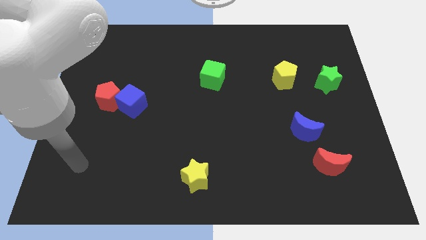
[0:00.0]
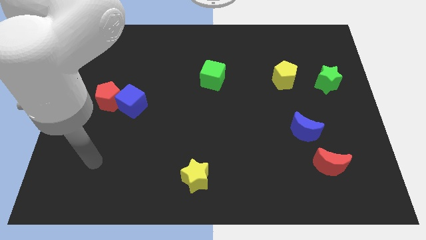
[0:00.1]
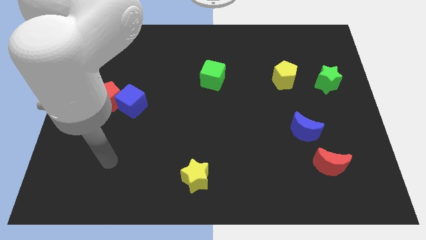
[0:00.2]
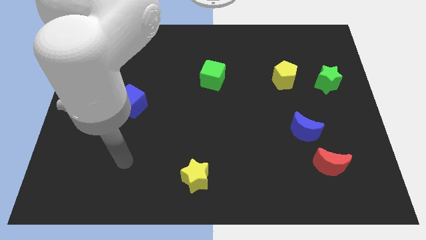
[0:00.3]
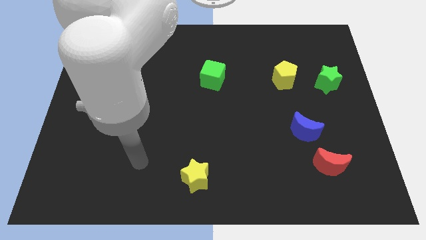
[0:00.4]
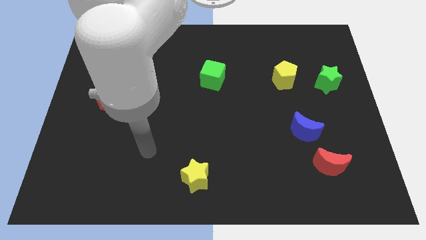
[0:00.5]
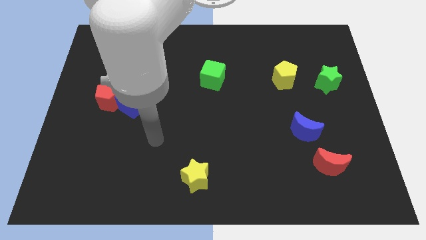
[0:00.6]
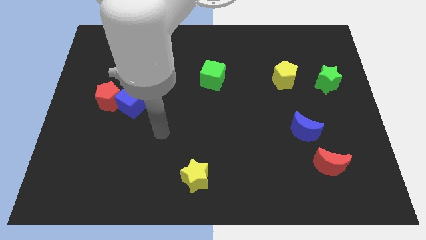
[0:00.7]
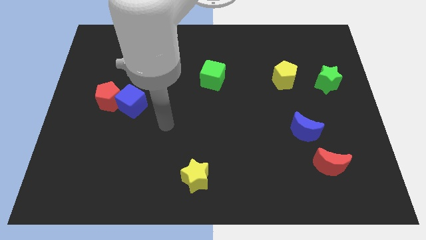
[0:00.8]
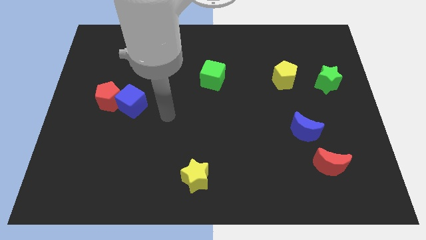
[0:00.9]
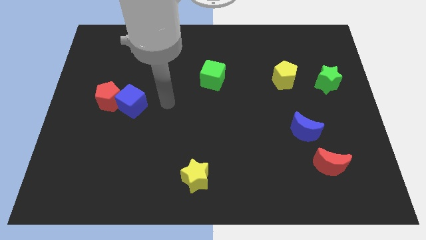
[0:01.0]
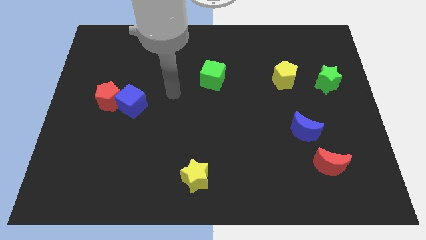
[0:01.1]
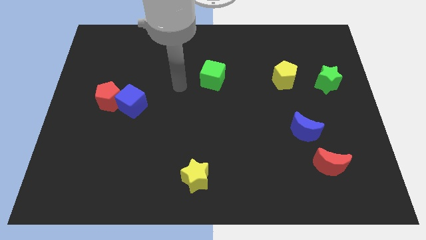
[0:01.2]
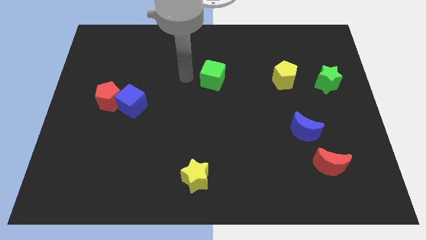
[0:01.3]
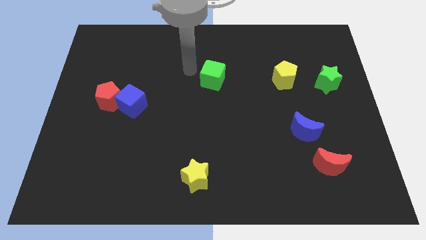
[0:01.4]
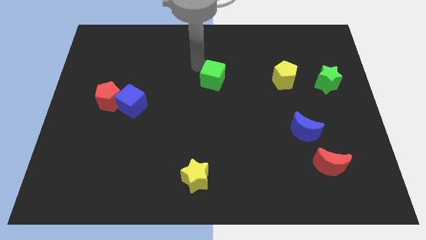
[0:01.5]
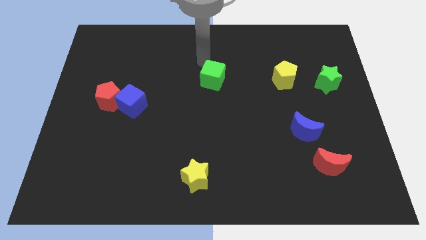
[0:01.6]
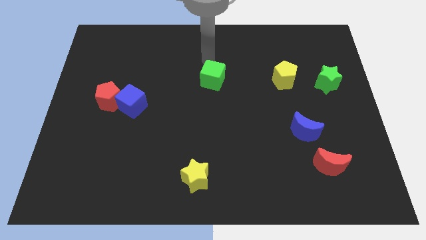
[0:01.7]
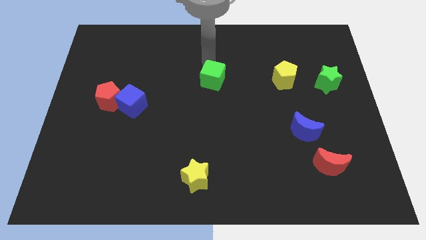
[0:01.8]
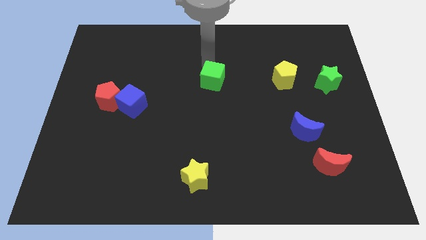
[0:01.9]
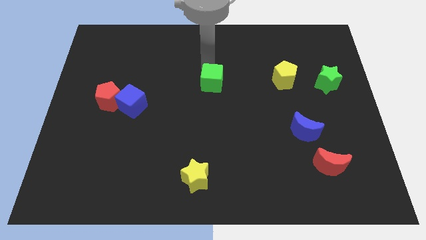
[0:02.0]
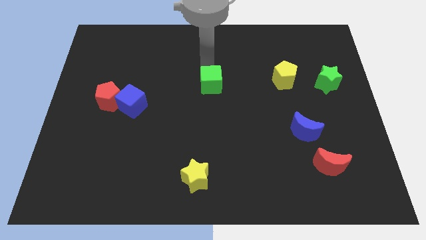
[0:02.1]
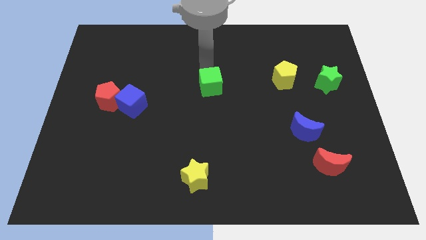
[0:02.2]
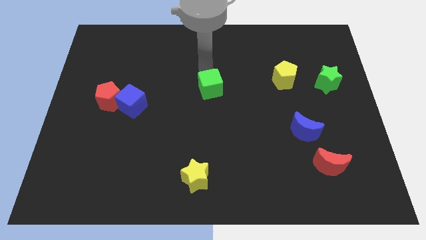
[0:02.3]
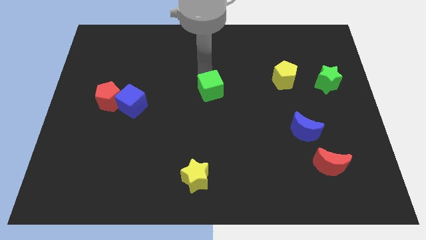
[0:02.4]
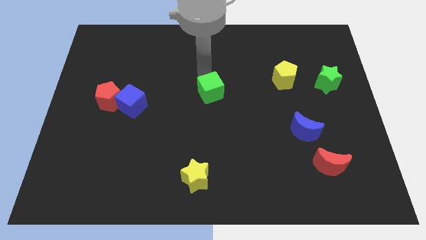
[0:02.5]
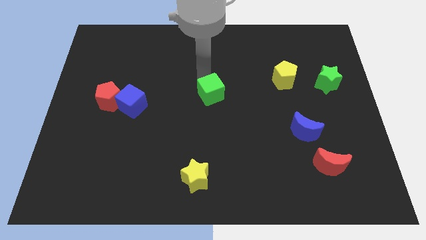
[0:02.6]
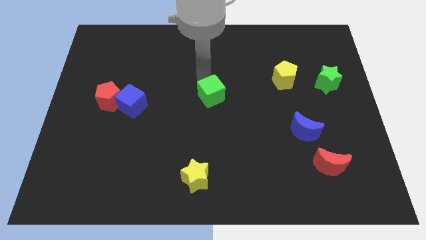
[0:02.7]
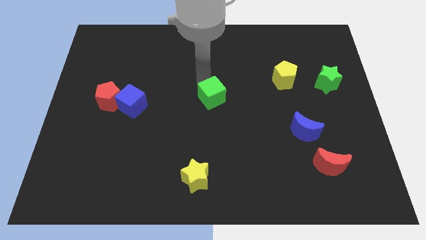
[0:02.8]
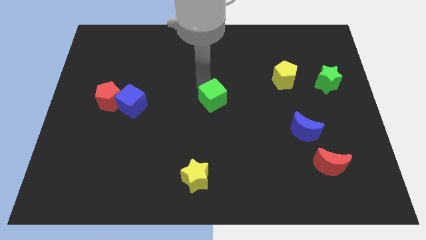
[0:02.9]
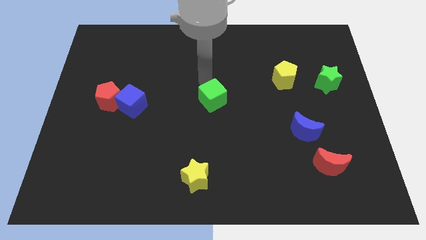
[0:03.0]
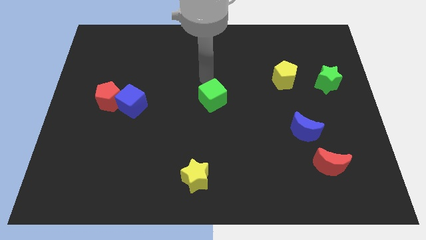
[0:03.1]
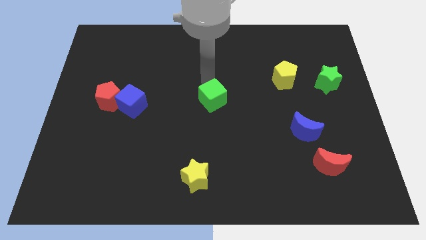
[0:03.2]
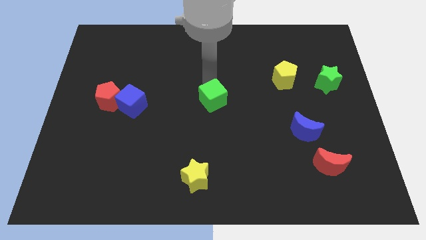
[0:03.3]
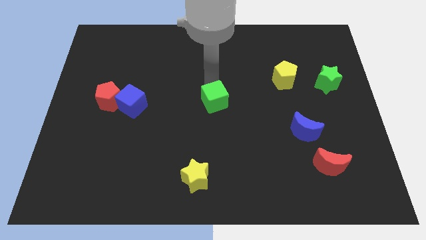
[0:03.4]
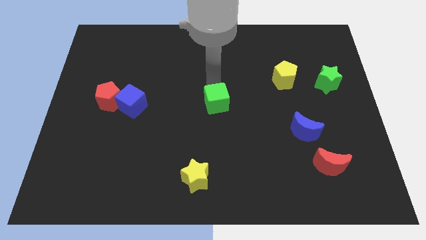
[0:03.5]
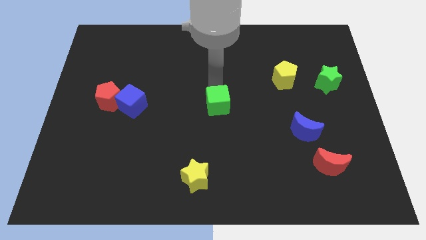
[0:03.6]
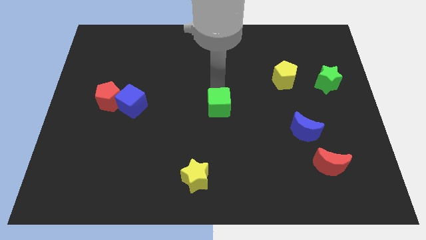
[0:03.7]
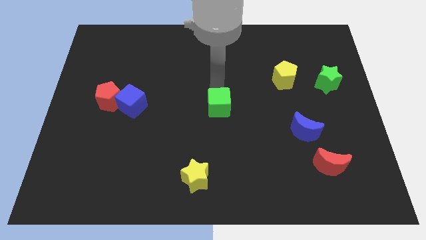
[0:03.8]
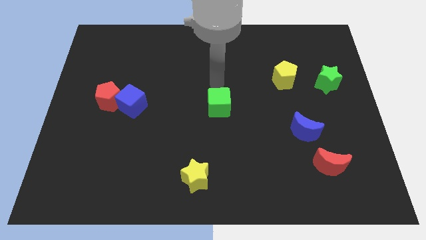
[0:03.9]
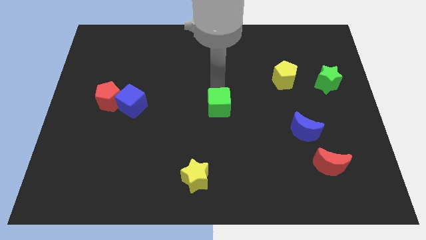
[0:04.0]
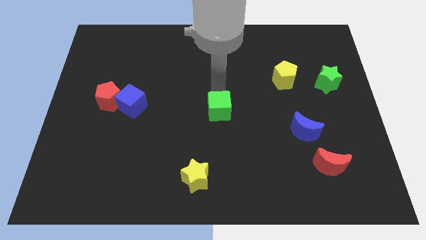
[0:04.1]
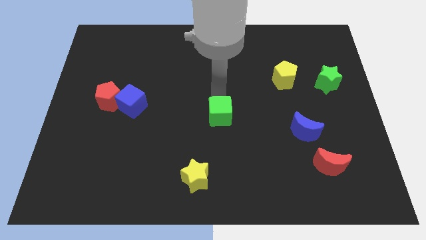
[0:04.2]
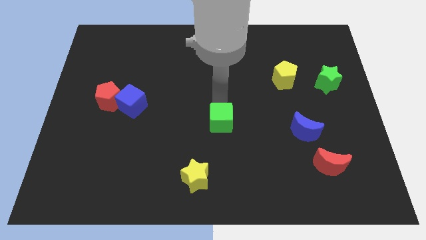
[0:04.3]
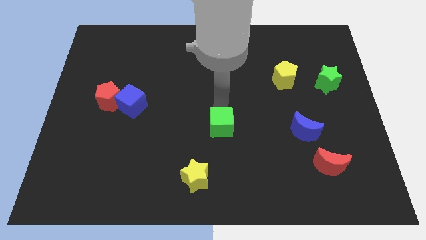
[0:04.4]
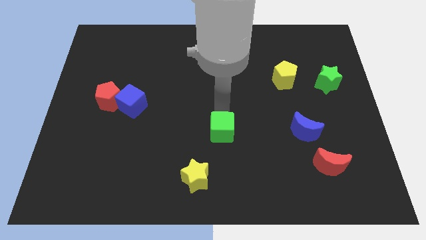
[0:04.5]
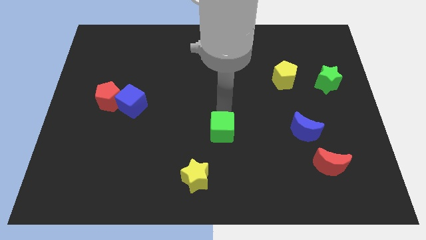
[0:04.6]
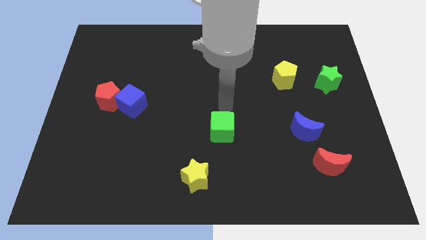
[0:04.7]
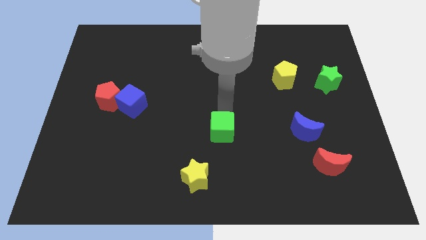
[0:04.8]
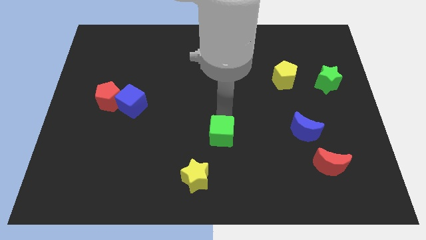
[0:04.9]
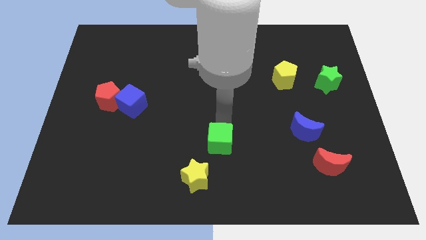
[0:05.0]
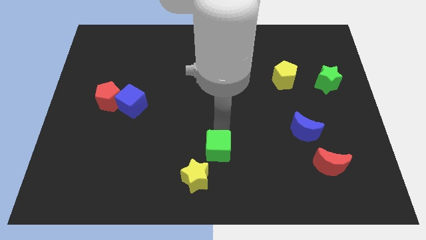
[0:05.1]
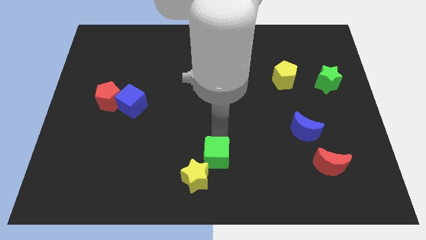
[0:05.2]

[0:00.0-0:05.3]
push the green cube to the bottom side

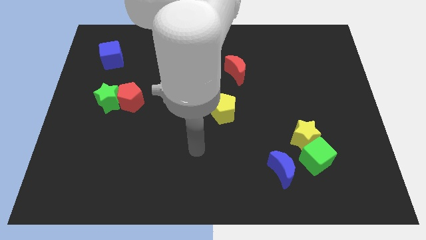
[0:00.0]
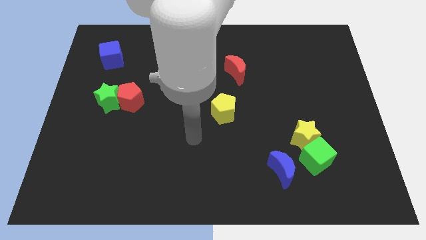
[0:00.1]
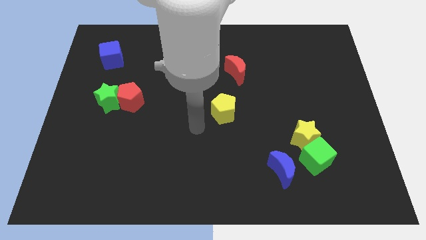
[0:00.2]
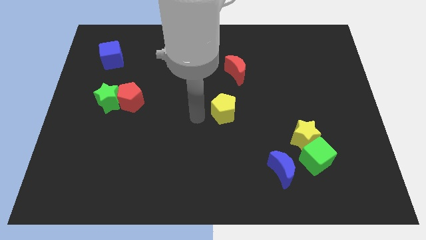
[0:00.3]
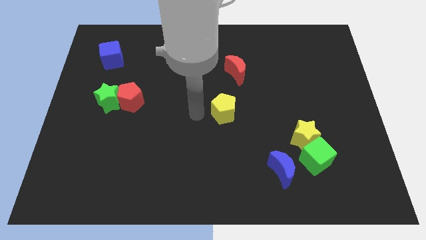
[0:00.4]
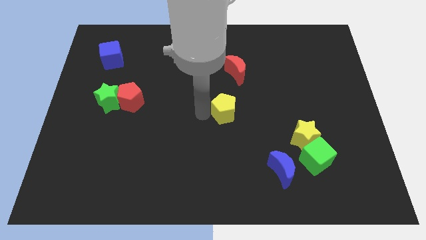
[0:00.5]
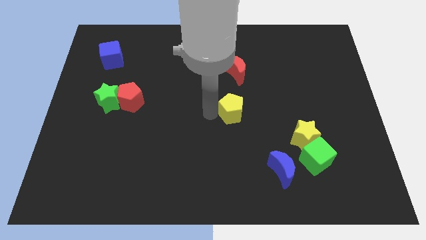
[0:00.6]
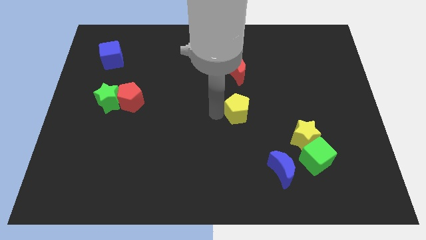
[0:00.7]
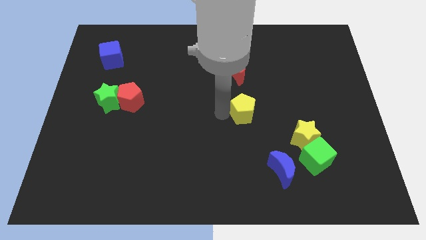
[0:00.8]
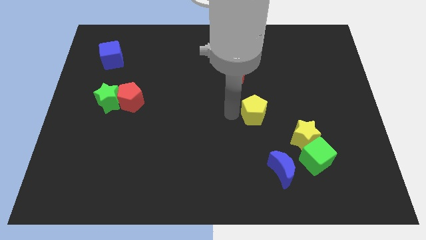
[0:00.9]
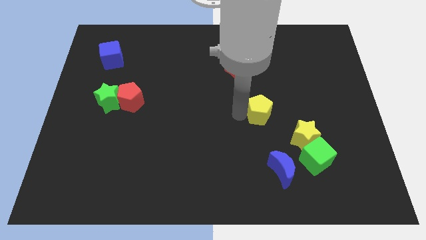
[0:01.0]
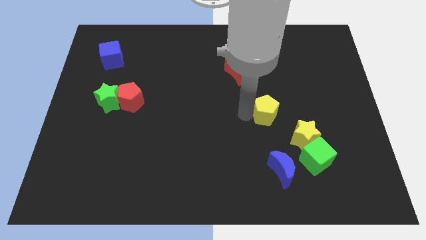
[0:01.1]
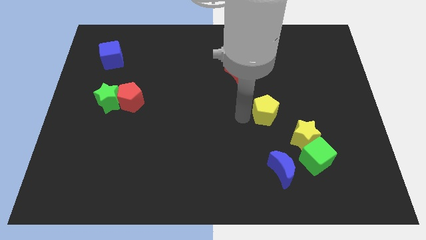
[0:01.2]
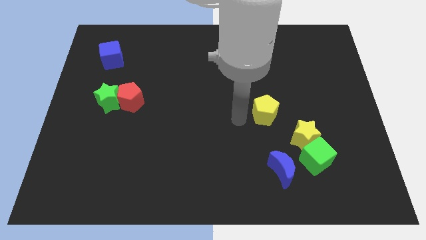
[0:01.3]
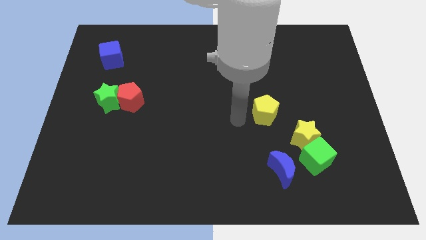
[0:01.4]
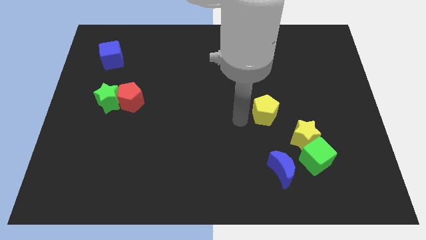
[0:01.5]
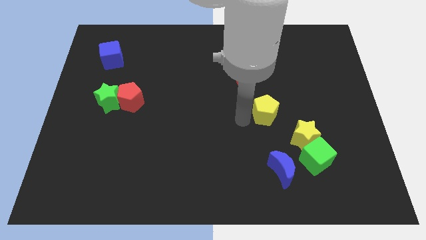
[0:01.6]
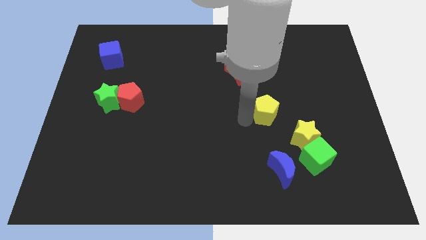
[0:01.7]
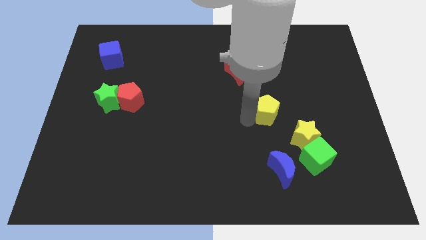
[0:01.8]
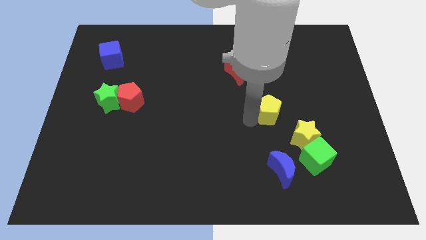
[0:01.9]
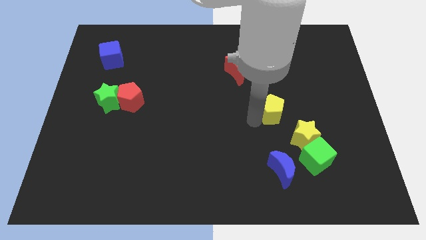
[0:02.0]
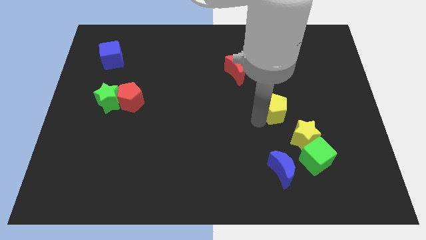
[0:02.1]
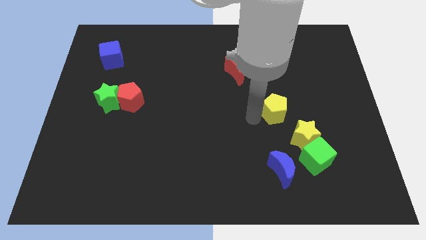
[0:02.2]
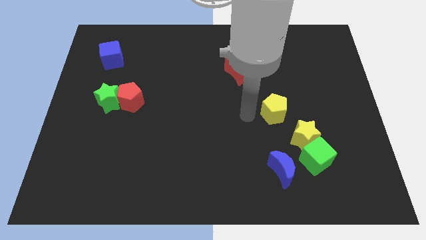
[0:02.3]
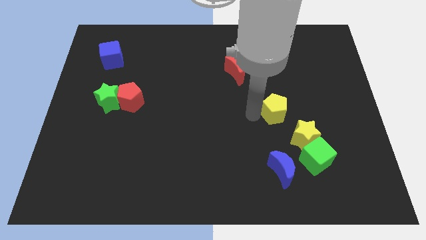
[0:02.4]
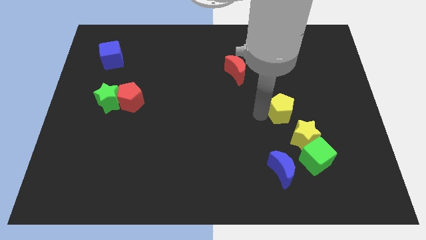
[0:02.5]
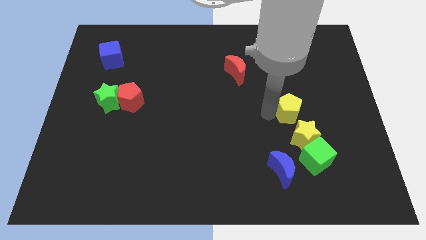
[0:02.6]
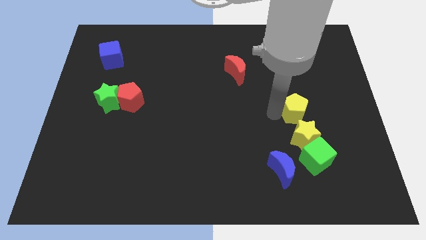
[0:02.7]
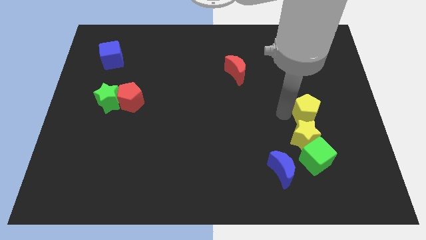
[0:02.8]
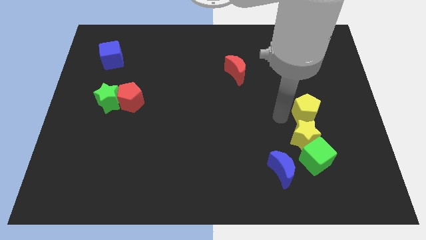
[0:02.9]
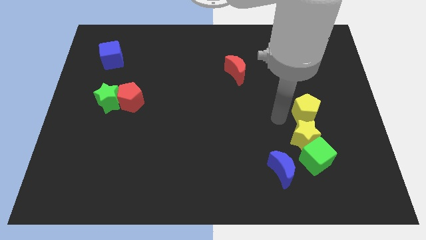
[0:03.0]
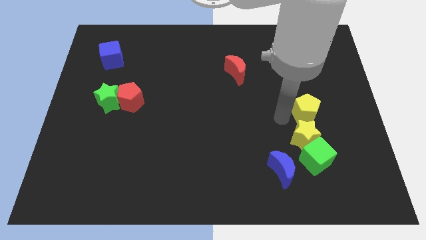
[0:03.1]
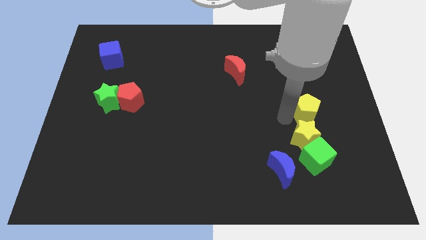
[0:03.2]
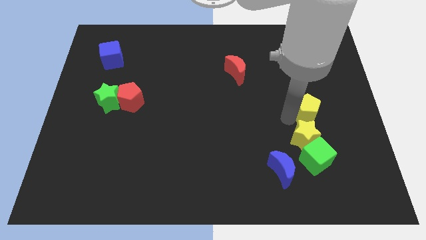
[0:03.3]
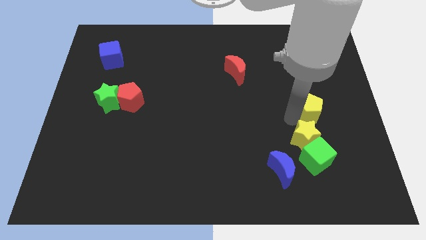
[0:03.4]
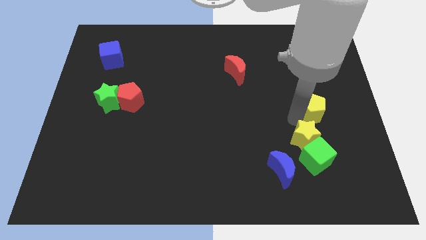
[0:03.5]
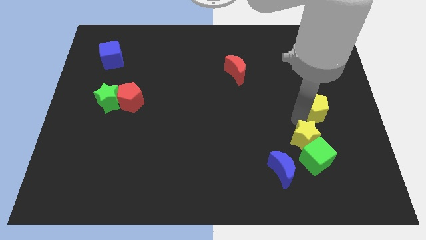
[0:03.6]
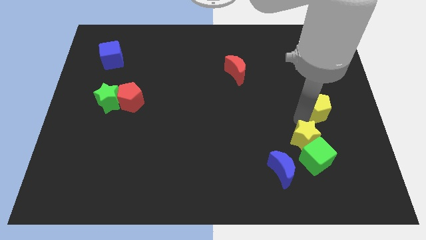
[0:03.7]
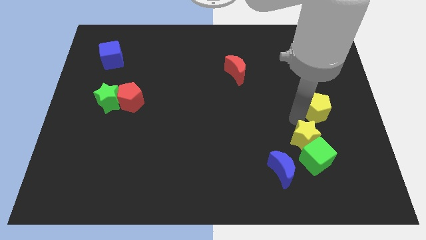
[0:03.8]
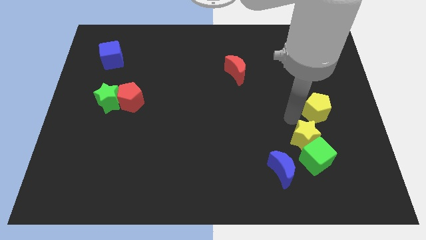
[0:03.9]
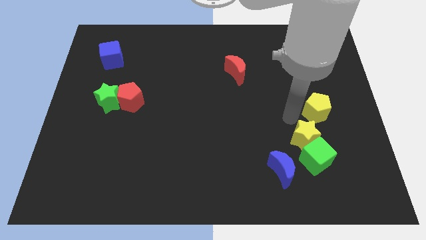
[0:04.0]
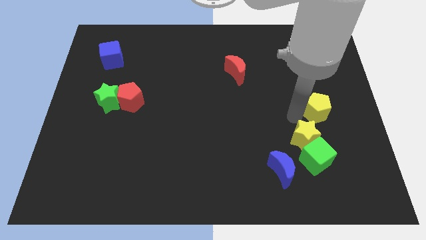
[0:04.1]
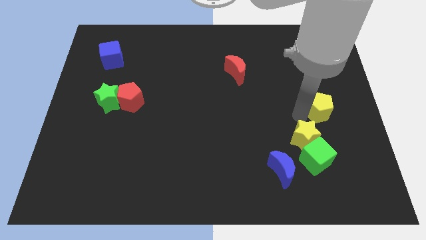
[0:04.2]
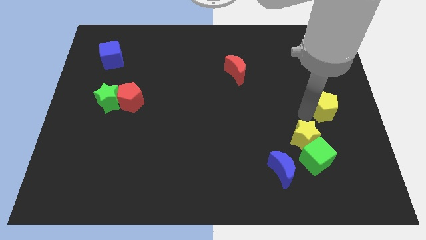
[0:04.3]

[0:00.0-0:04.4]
push the yellow pentagon to the right side
